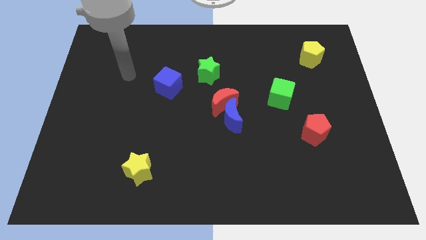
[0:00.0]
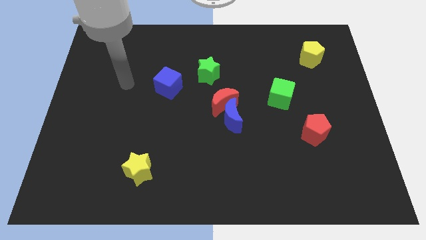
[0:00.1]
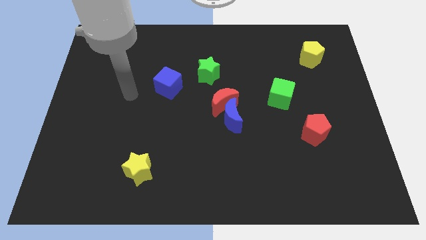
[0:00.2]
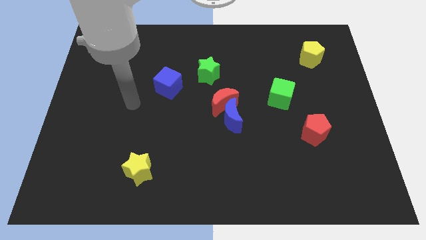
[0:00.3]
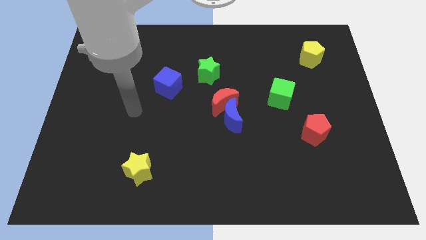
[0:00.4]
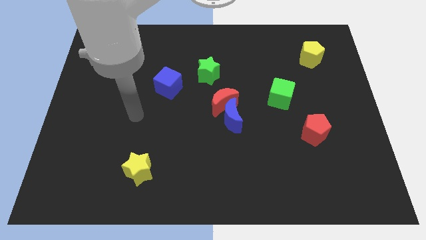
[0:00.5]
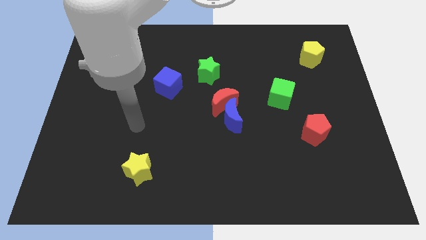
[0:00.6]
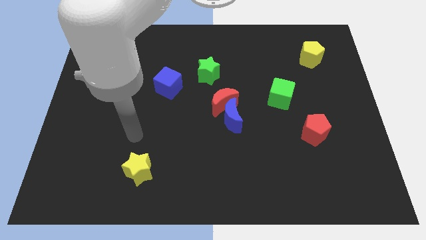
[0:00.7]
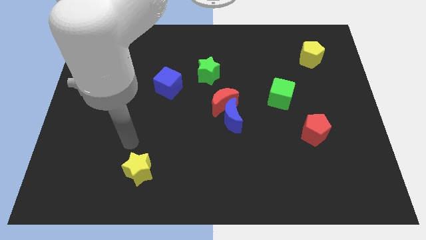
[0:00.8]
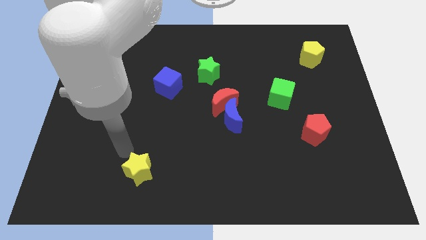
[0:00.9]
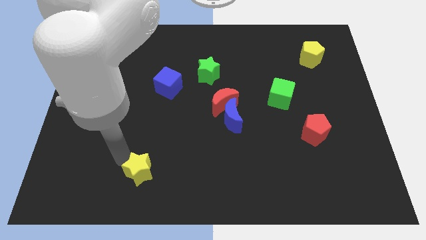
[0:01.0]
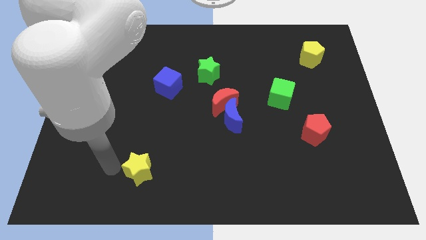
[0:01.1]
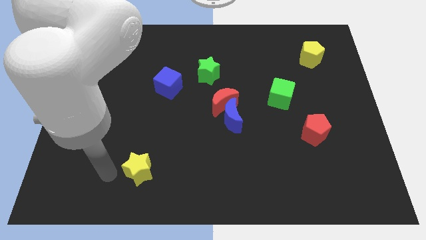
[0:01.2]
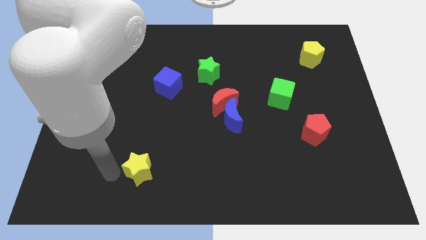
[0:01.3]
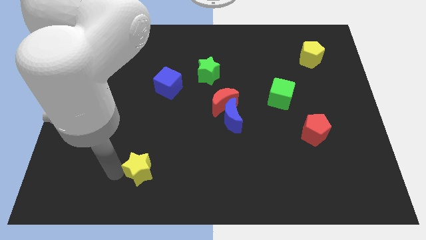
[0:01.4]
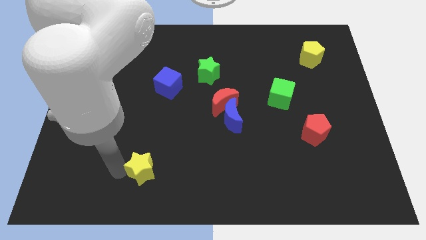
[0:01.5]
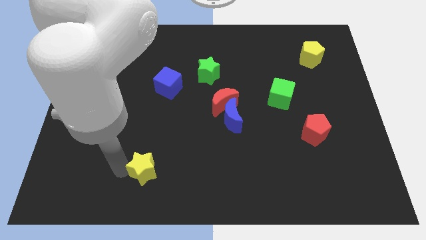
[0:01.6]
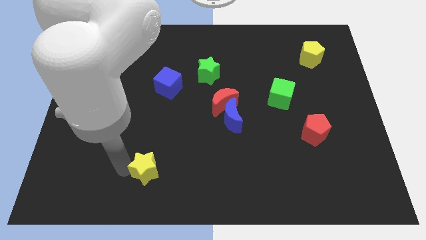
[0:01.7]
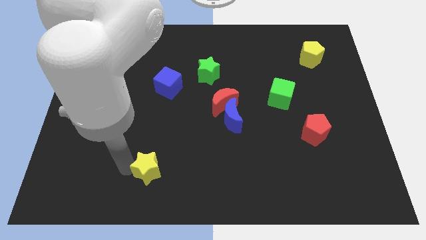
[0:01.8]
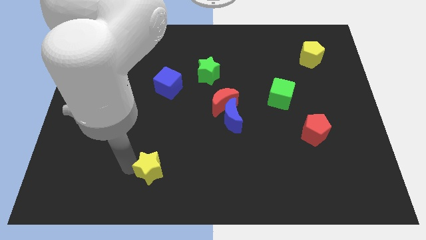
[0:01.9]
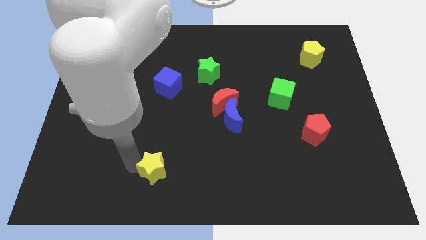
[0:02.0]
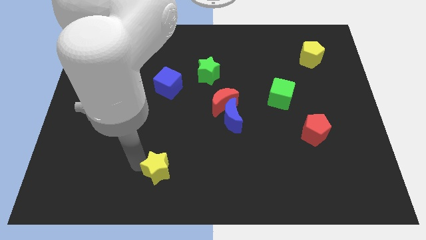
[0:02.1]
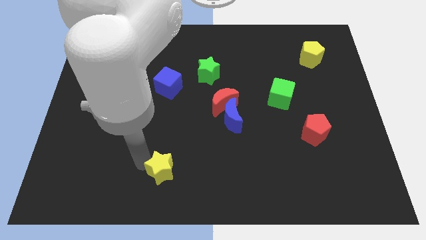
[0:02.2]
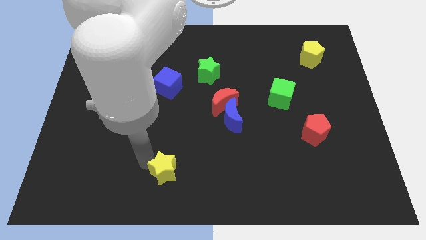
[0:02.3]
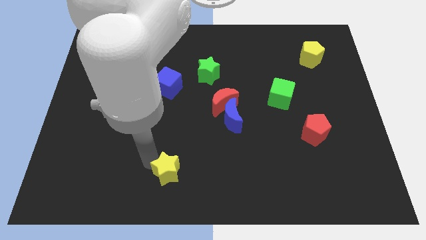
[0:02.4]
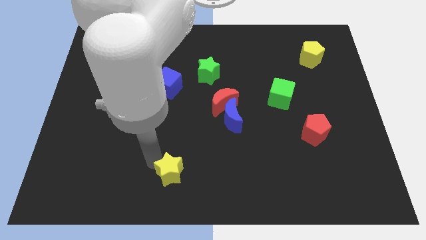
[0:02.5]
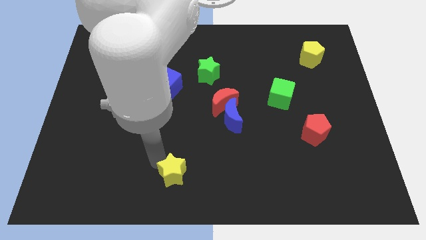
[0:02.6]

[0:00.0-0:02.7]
move the yellow star right a little

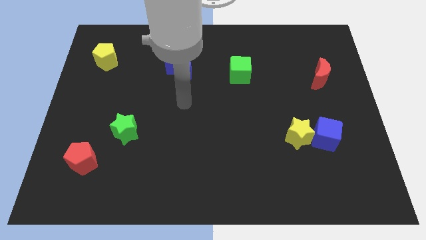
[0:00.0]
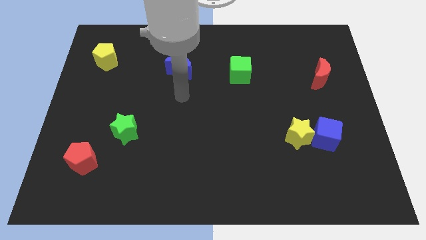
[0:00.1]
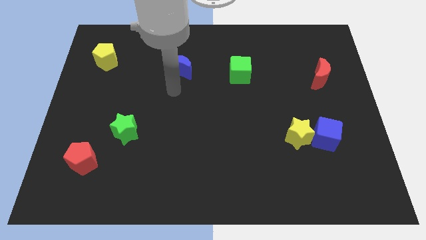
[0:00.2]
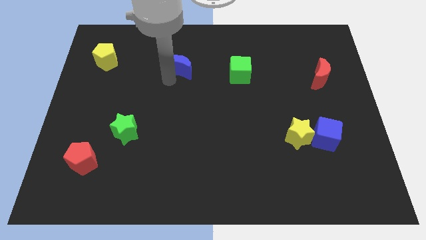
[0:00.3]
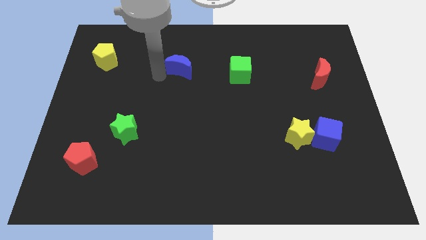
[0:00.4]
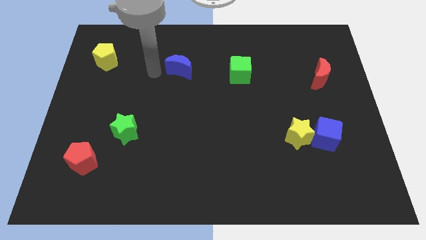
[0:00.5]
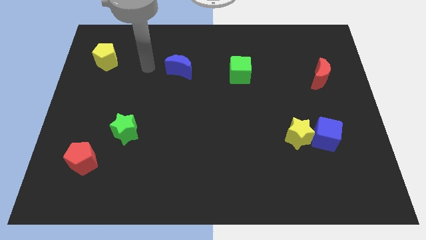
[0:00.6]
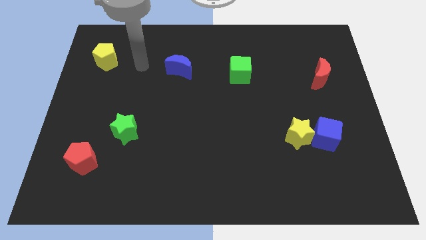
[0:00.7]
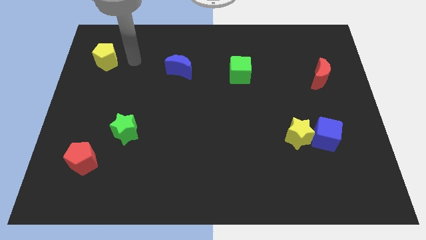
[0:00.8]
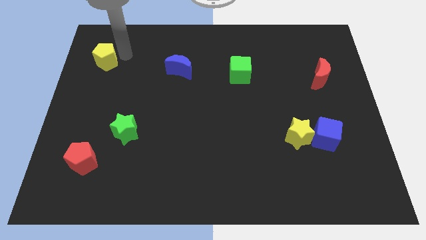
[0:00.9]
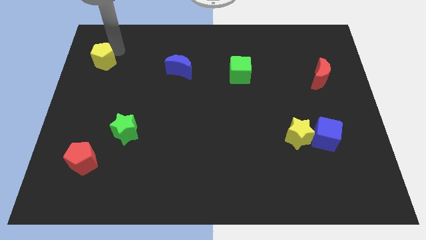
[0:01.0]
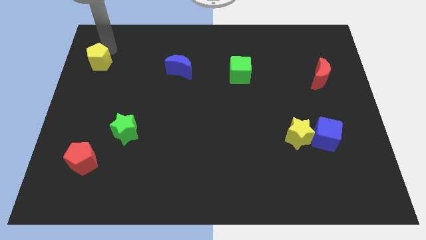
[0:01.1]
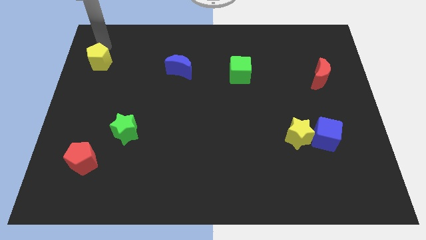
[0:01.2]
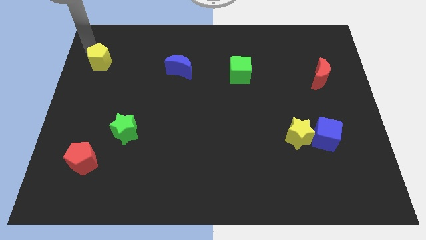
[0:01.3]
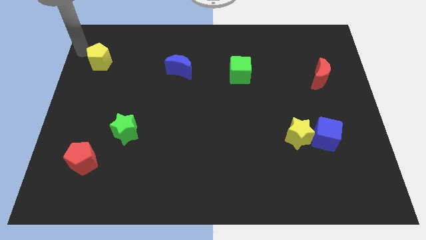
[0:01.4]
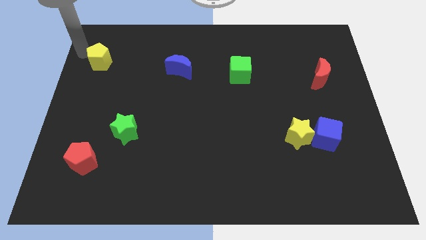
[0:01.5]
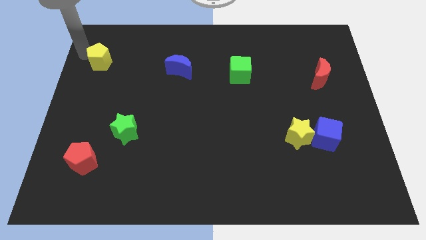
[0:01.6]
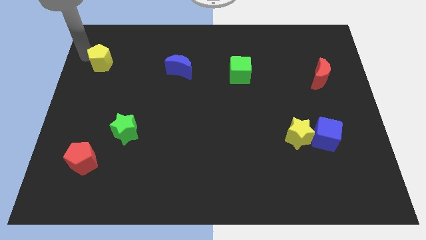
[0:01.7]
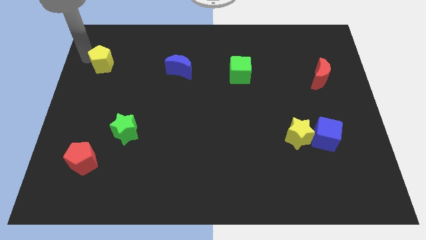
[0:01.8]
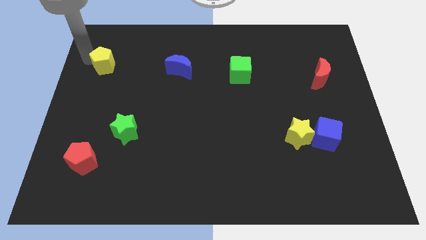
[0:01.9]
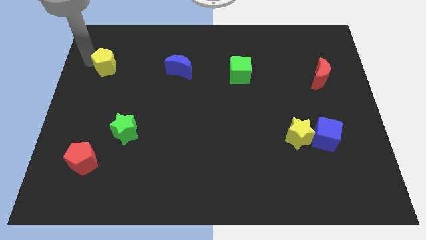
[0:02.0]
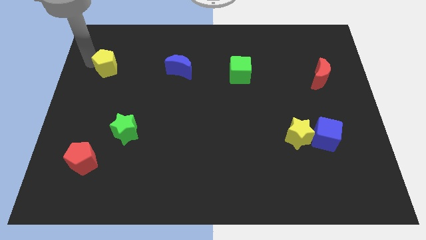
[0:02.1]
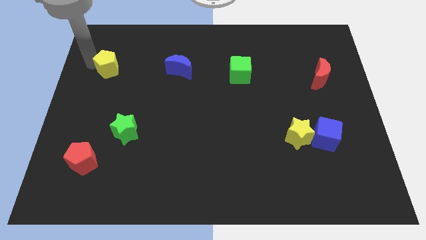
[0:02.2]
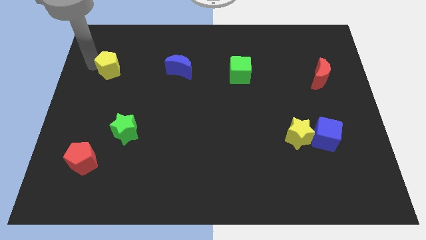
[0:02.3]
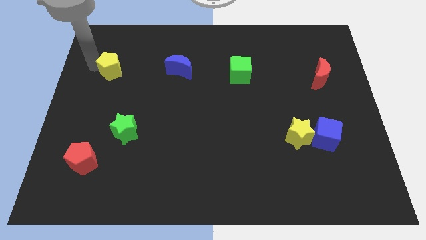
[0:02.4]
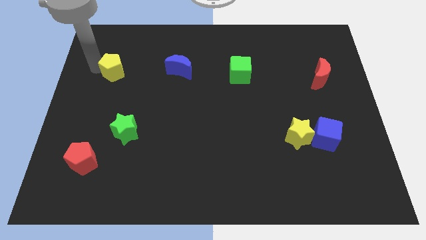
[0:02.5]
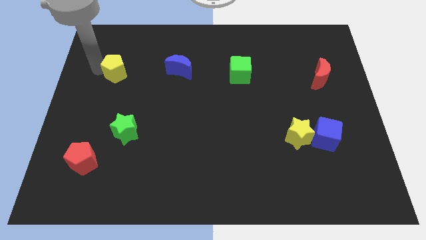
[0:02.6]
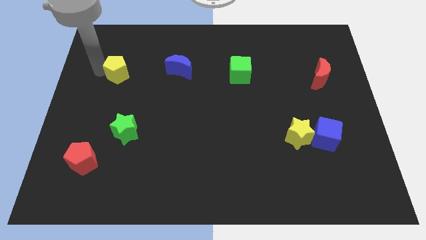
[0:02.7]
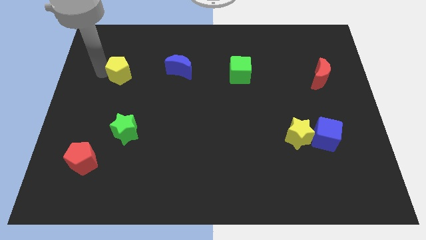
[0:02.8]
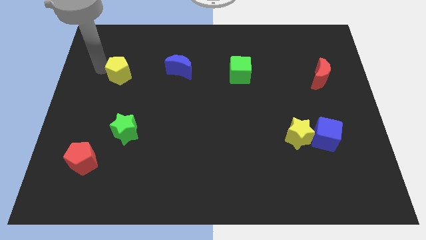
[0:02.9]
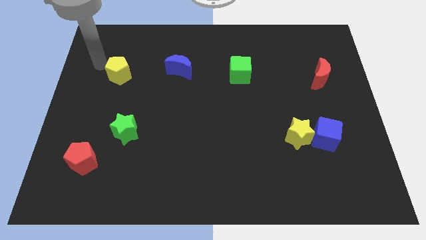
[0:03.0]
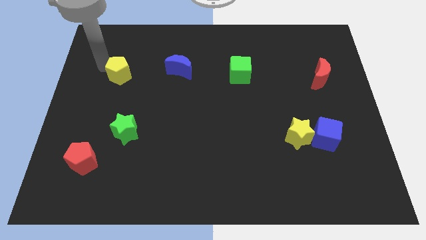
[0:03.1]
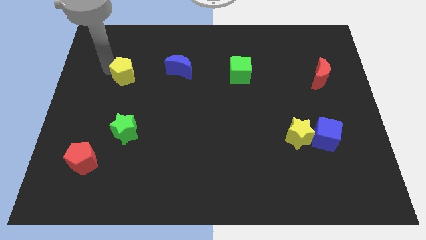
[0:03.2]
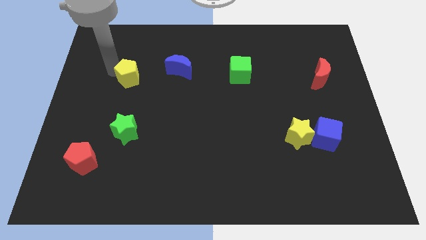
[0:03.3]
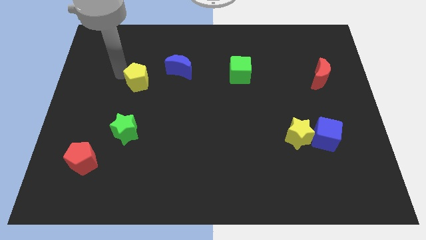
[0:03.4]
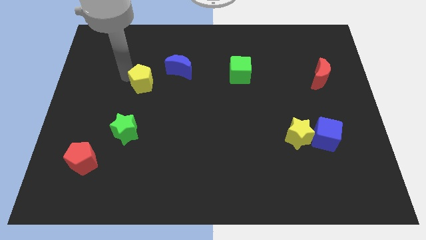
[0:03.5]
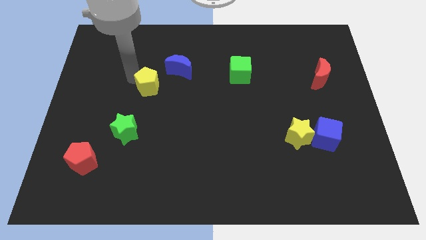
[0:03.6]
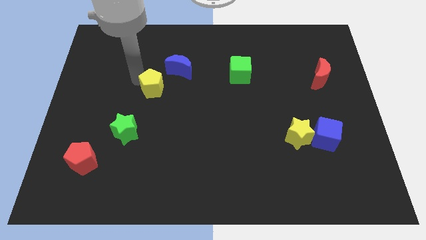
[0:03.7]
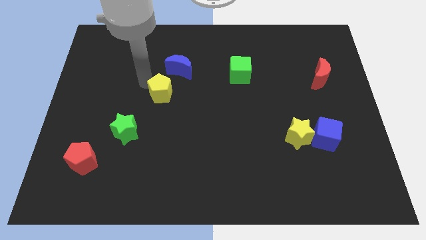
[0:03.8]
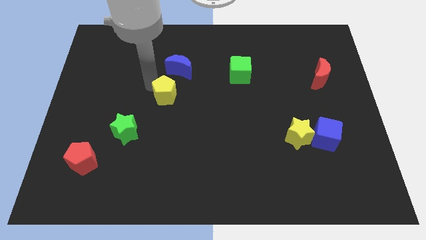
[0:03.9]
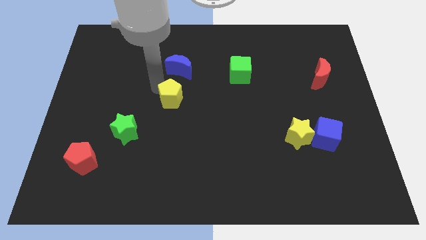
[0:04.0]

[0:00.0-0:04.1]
slide the yellow pentagon downwards and then to the right

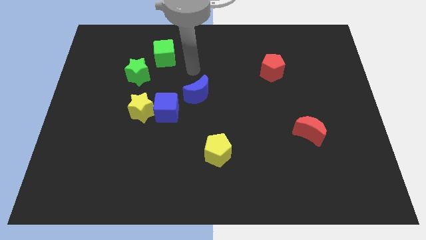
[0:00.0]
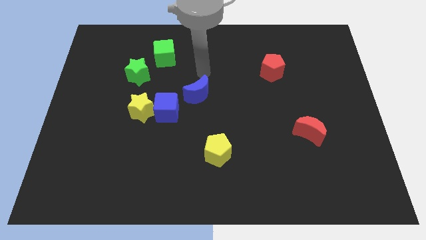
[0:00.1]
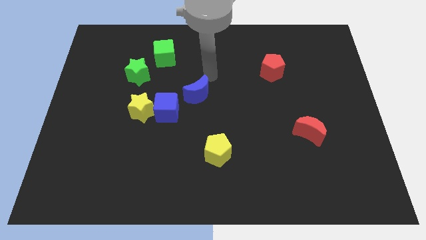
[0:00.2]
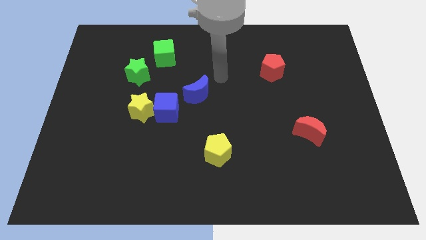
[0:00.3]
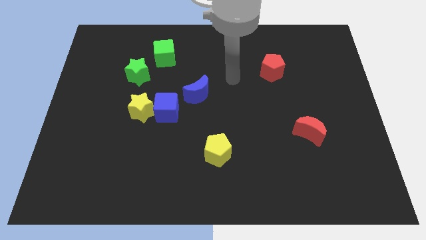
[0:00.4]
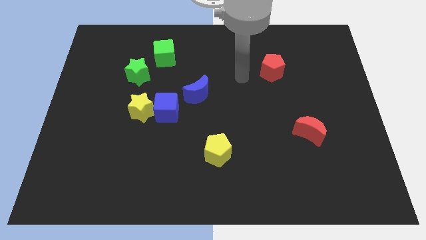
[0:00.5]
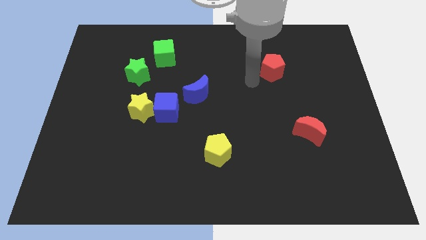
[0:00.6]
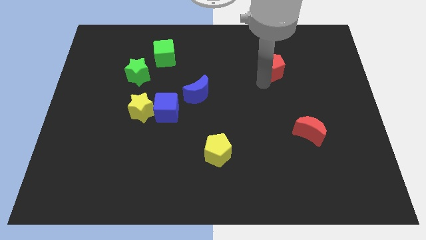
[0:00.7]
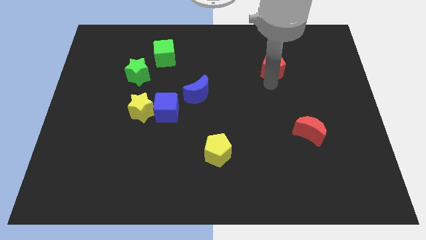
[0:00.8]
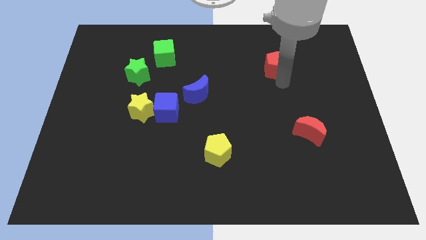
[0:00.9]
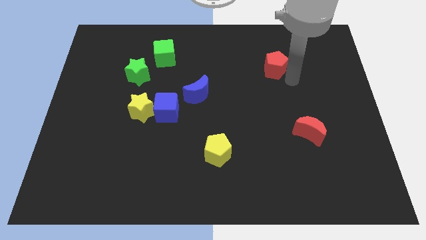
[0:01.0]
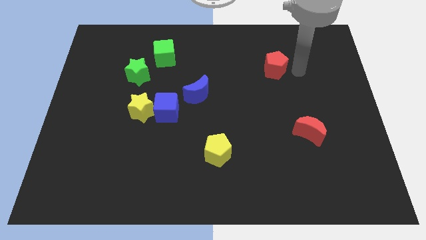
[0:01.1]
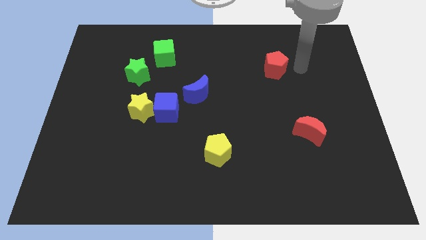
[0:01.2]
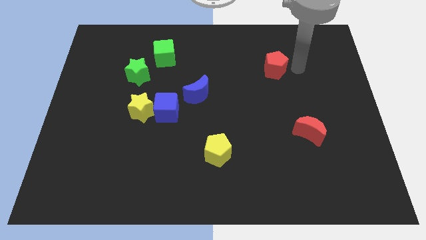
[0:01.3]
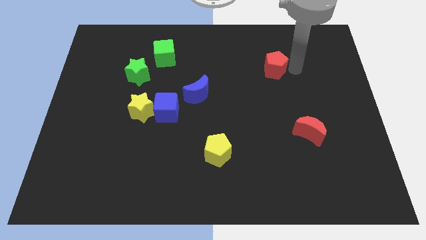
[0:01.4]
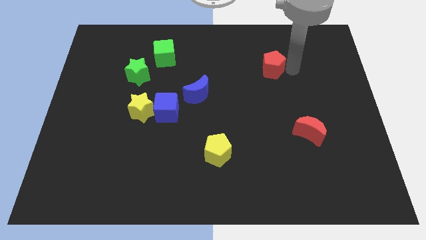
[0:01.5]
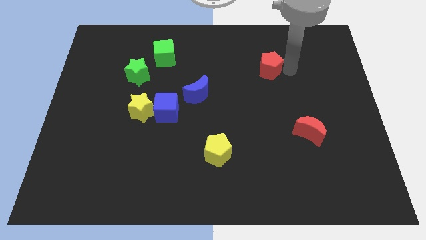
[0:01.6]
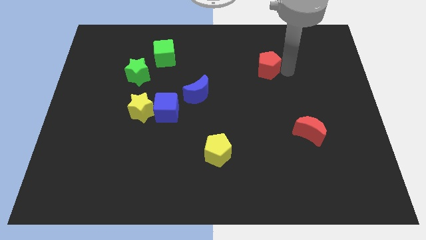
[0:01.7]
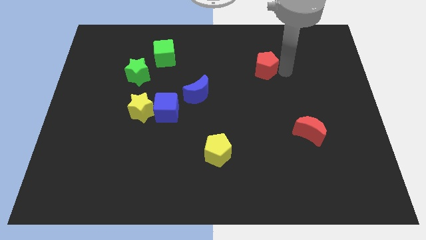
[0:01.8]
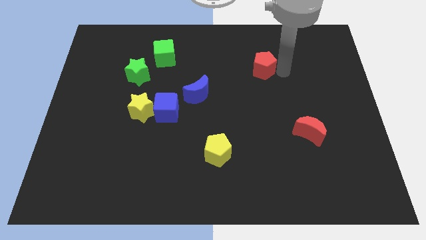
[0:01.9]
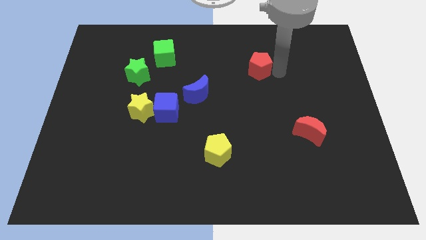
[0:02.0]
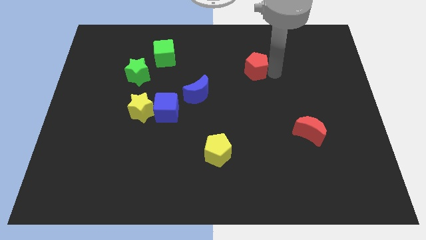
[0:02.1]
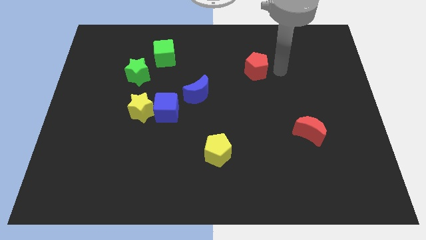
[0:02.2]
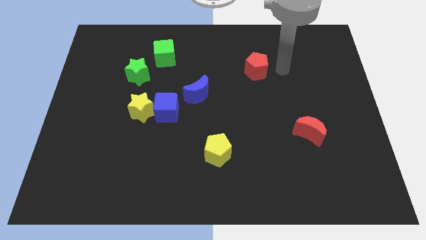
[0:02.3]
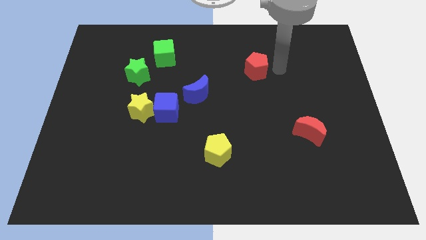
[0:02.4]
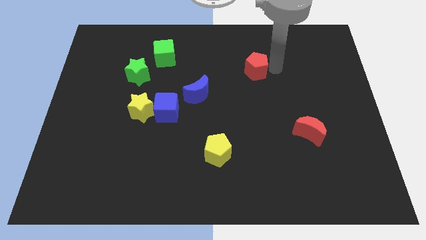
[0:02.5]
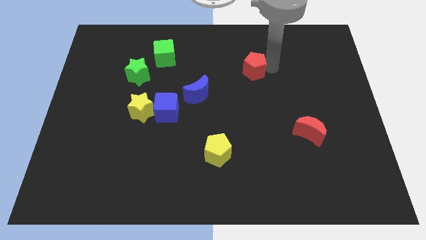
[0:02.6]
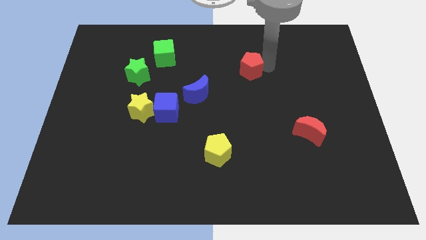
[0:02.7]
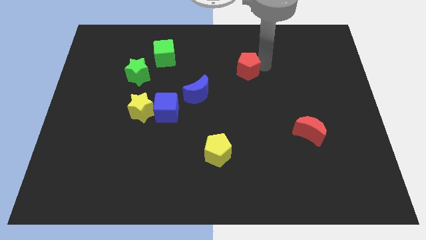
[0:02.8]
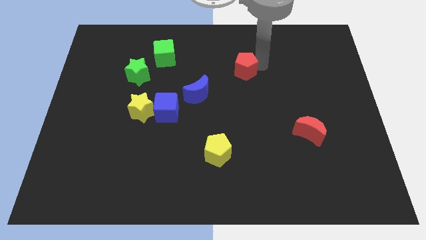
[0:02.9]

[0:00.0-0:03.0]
slide the red pentagon to the left somewhat
